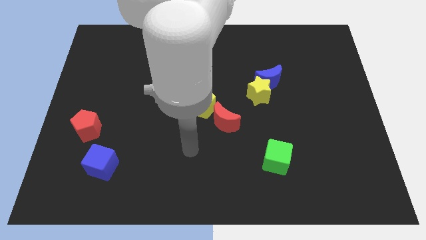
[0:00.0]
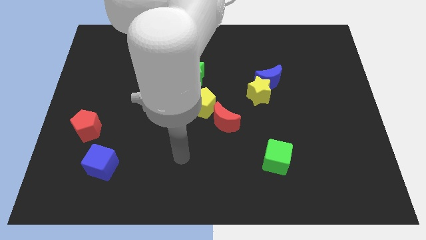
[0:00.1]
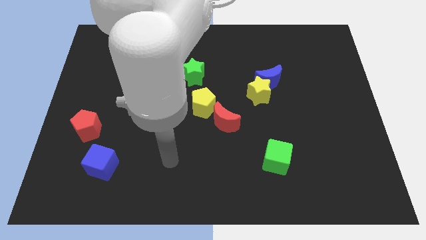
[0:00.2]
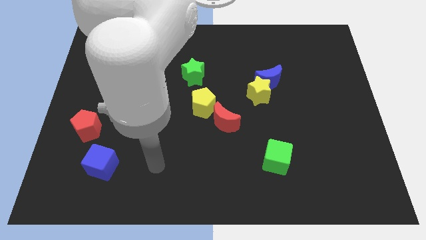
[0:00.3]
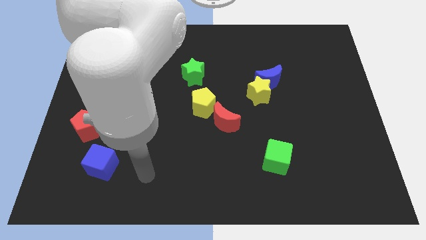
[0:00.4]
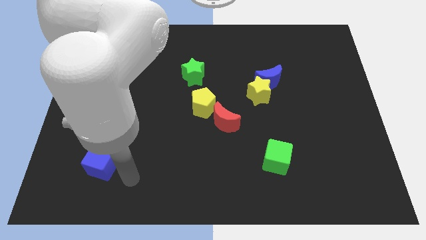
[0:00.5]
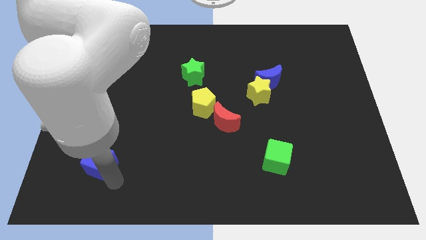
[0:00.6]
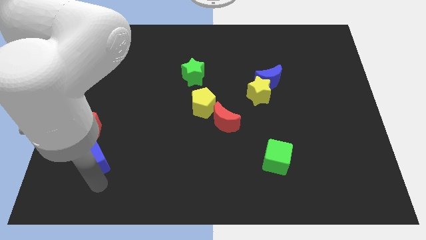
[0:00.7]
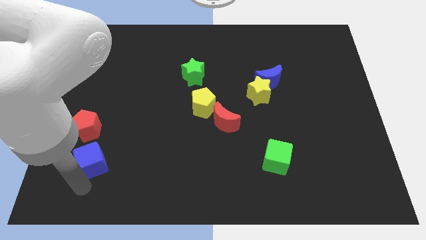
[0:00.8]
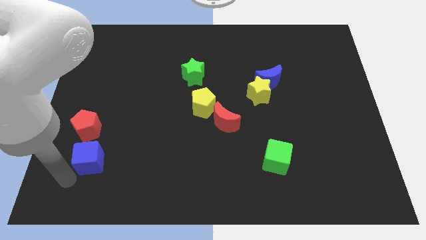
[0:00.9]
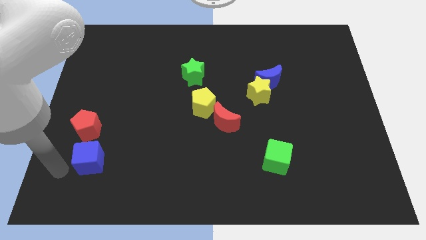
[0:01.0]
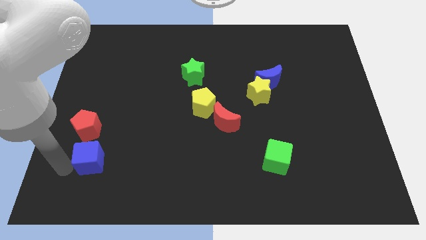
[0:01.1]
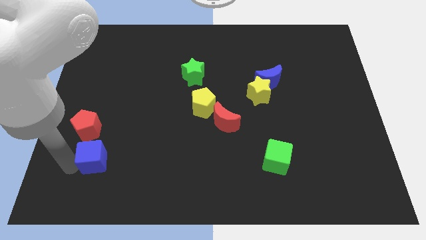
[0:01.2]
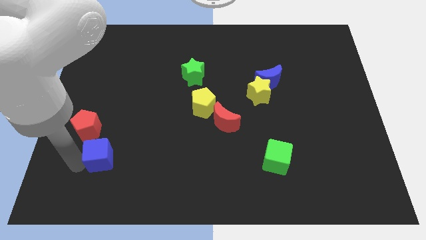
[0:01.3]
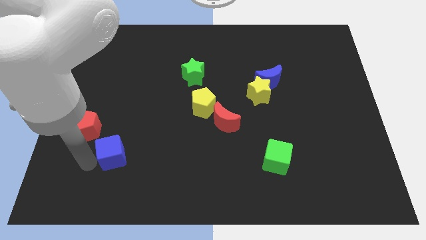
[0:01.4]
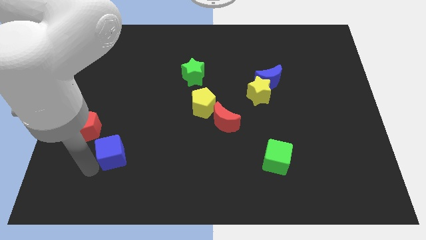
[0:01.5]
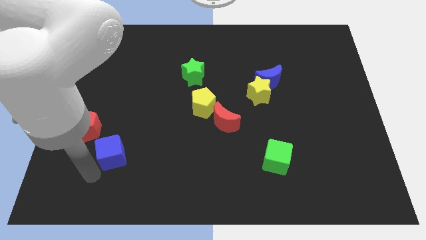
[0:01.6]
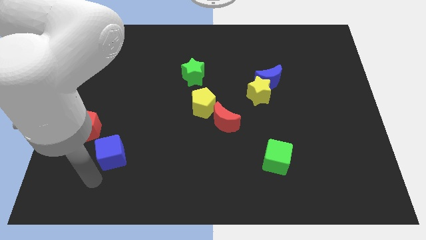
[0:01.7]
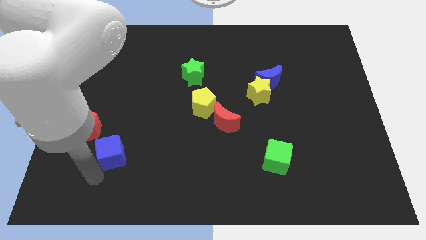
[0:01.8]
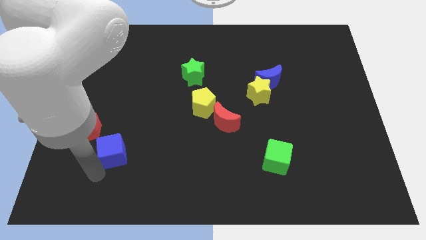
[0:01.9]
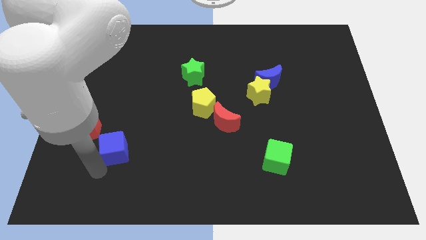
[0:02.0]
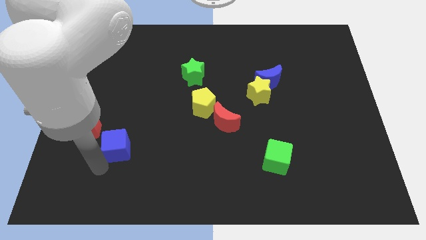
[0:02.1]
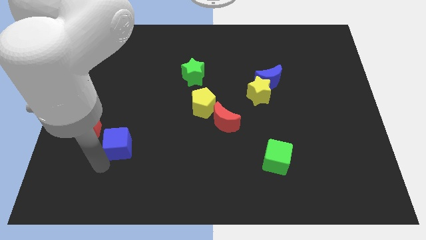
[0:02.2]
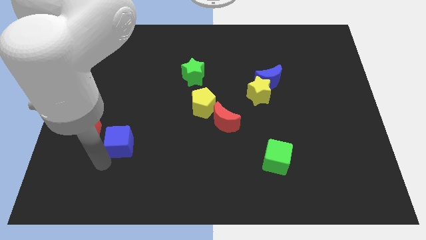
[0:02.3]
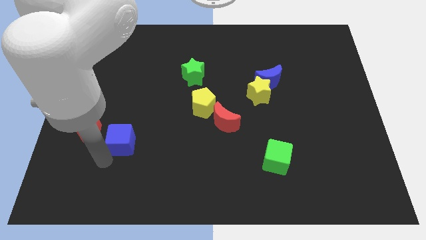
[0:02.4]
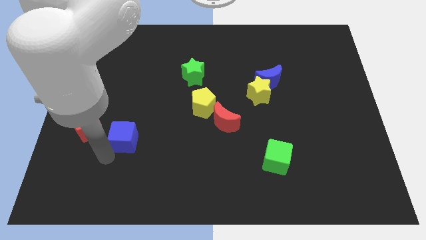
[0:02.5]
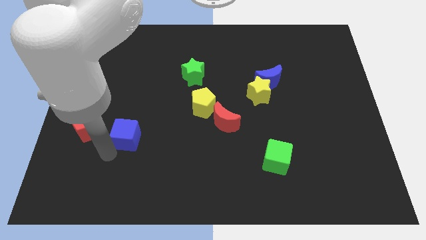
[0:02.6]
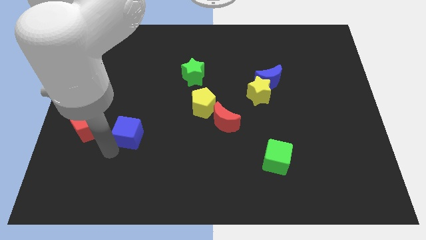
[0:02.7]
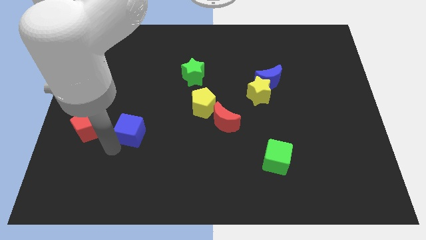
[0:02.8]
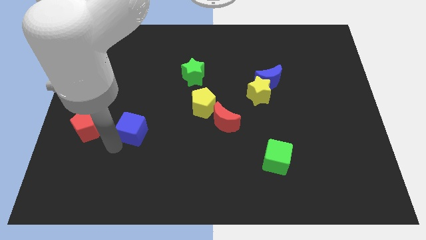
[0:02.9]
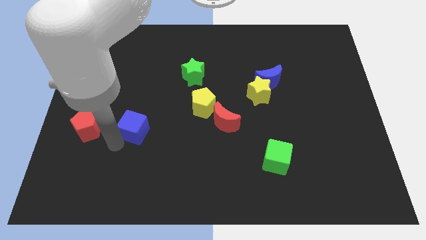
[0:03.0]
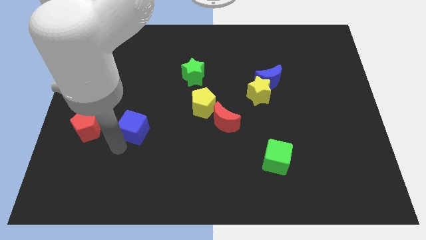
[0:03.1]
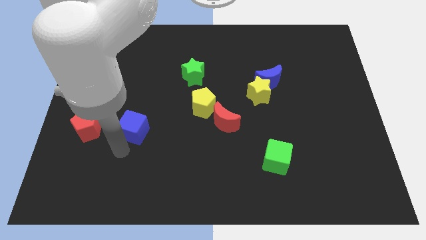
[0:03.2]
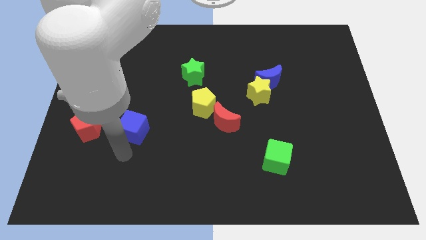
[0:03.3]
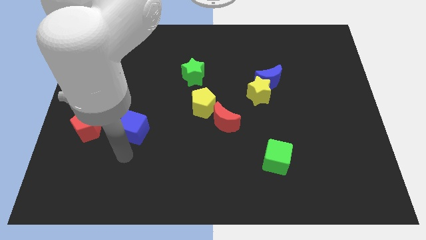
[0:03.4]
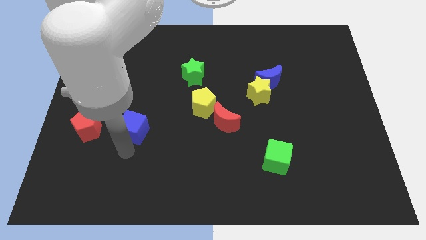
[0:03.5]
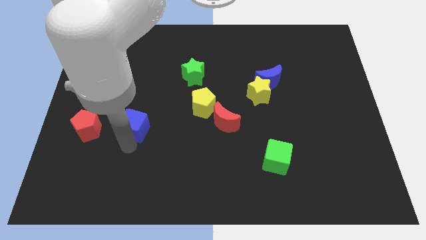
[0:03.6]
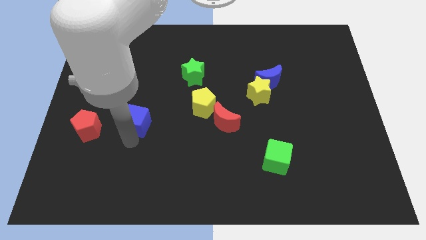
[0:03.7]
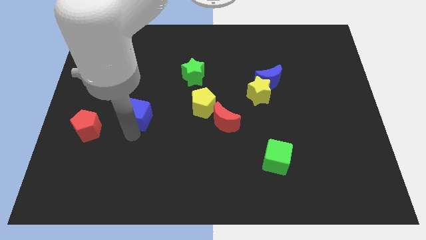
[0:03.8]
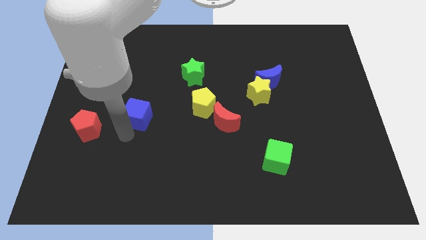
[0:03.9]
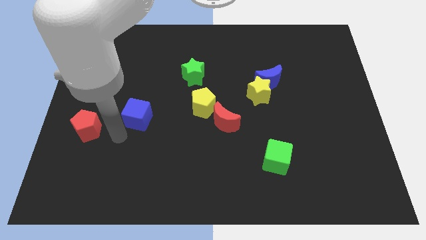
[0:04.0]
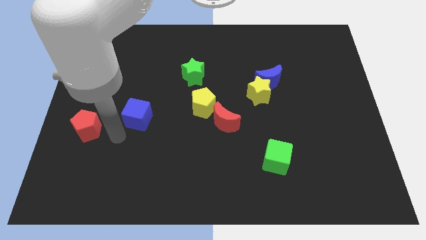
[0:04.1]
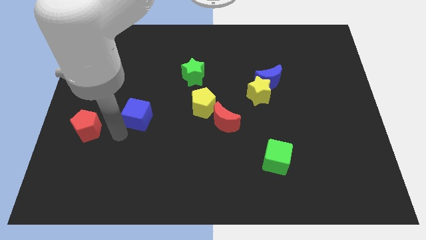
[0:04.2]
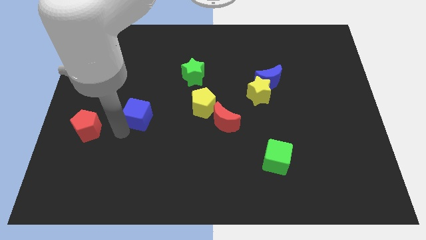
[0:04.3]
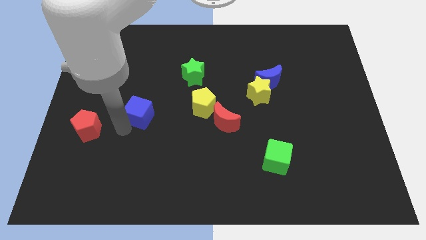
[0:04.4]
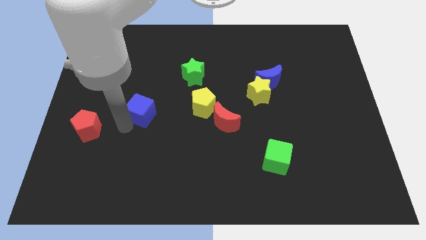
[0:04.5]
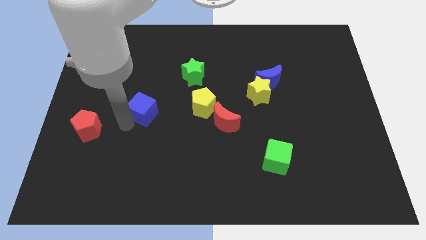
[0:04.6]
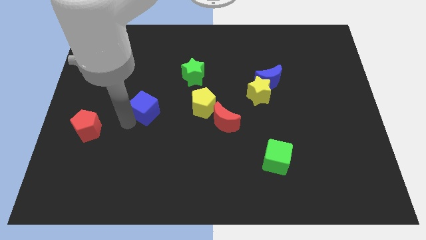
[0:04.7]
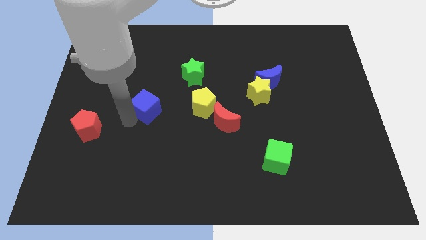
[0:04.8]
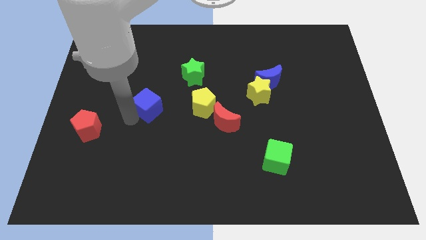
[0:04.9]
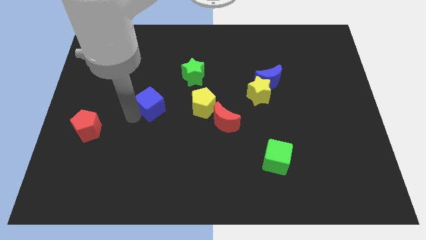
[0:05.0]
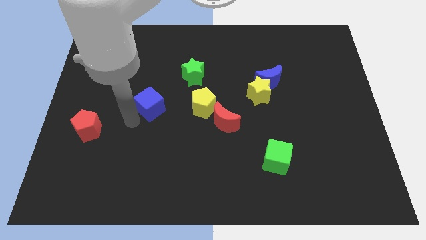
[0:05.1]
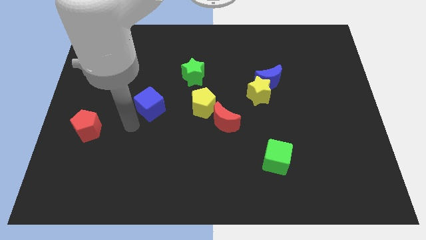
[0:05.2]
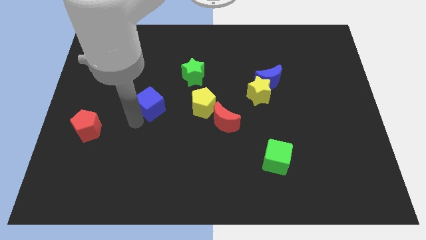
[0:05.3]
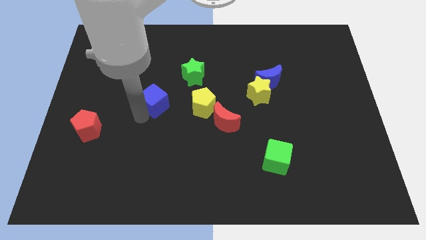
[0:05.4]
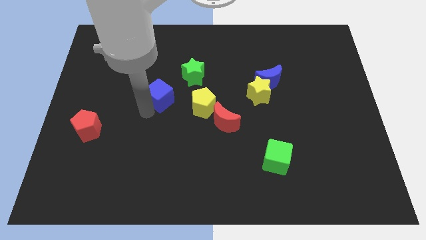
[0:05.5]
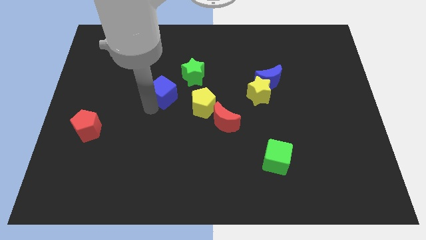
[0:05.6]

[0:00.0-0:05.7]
move the blue cube diagonally up and right

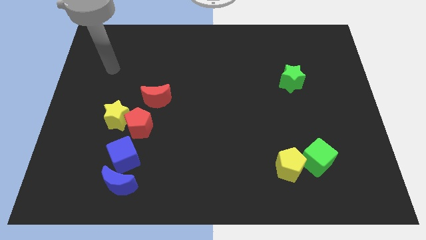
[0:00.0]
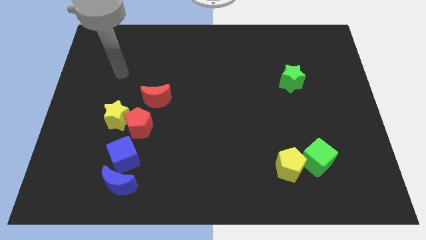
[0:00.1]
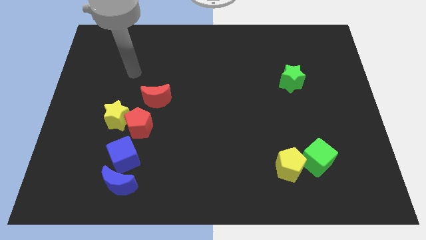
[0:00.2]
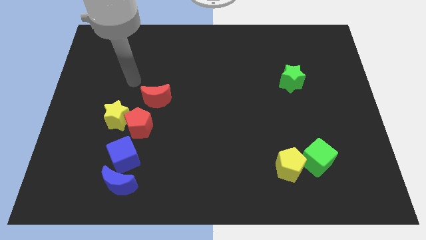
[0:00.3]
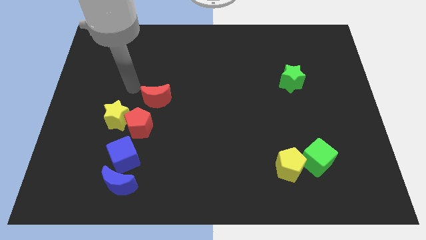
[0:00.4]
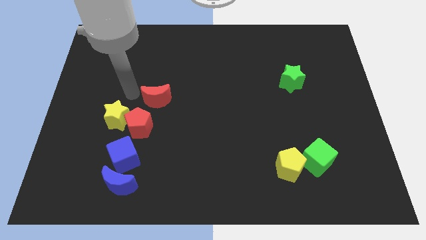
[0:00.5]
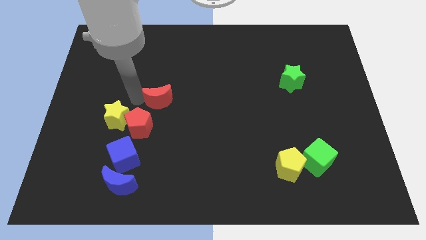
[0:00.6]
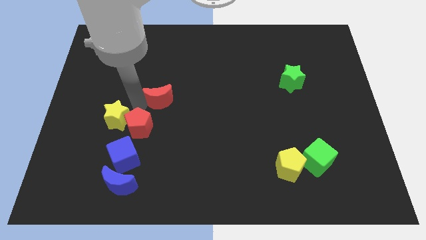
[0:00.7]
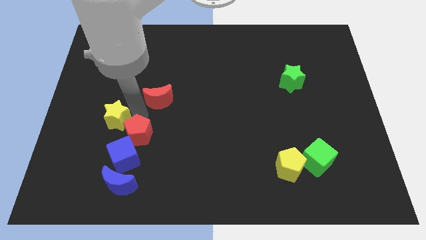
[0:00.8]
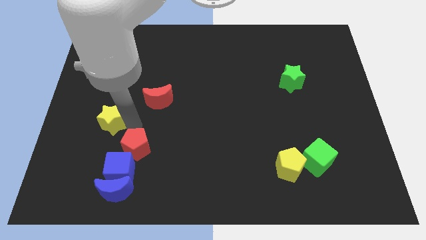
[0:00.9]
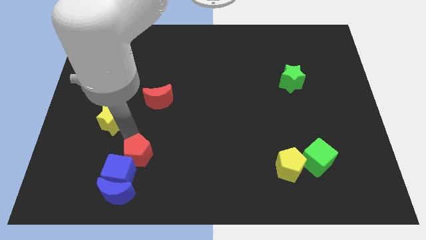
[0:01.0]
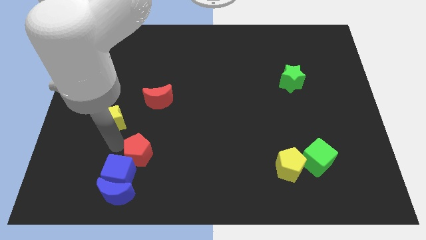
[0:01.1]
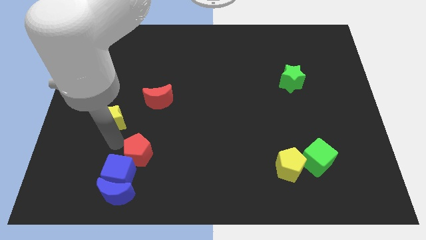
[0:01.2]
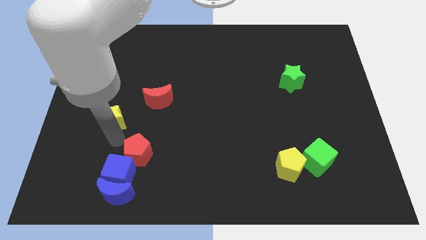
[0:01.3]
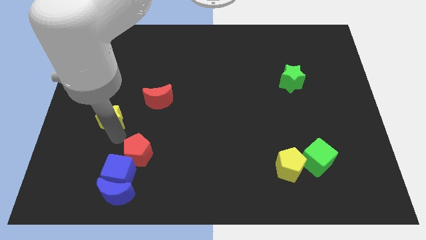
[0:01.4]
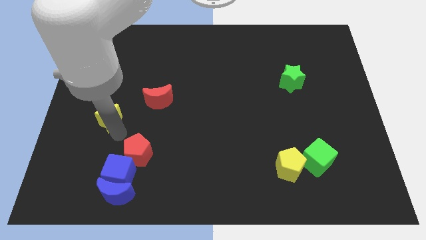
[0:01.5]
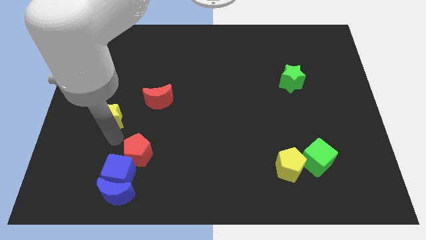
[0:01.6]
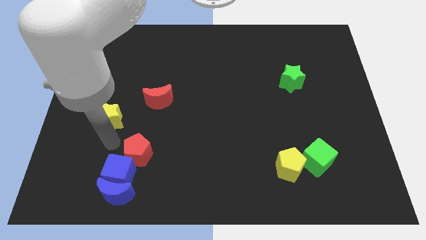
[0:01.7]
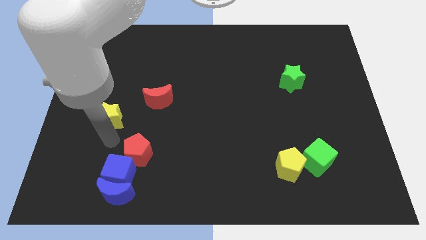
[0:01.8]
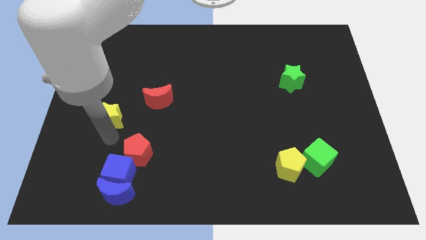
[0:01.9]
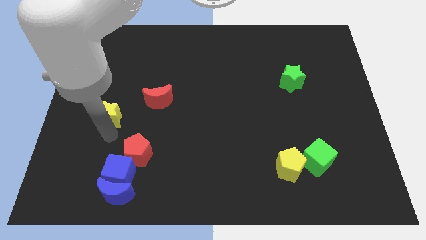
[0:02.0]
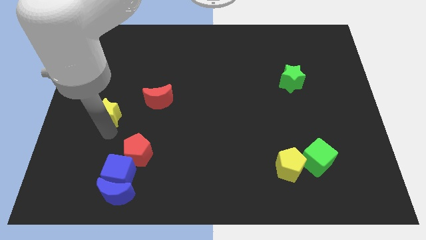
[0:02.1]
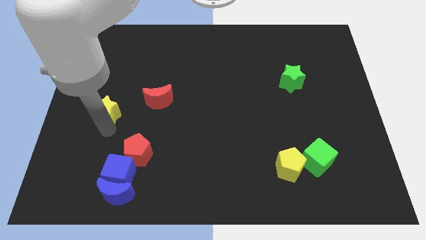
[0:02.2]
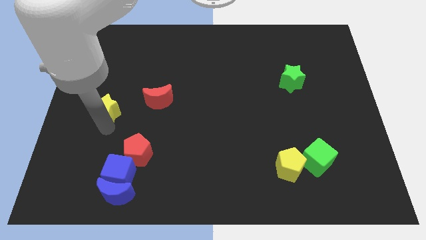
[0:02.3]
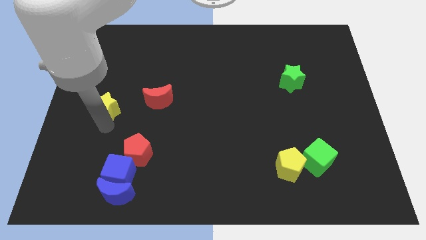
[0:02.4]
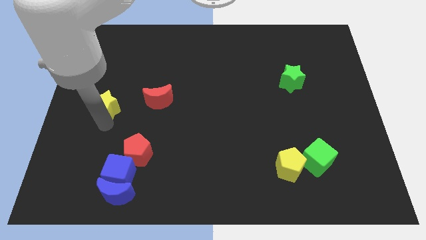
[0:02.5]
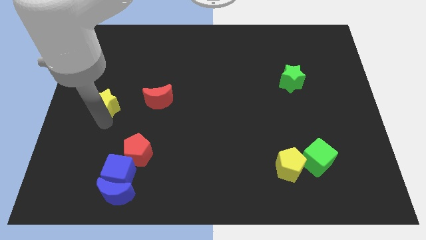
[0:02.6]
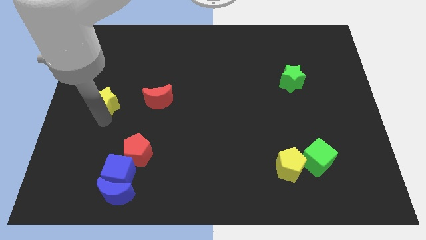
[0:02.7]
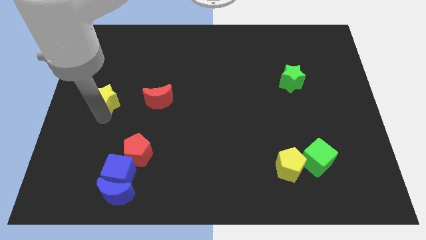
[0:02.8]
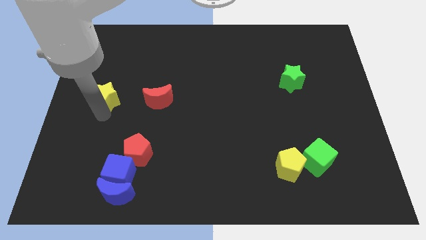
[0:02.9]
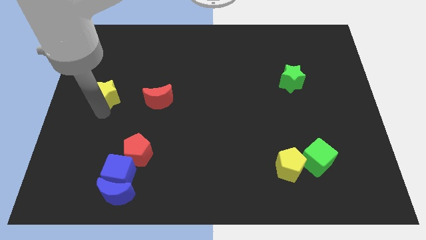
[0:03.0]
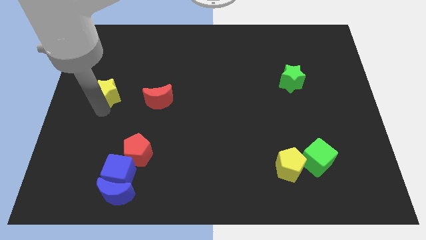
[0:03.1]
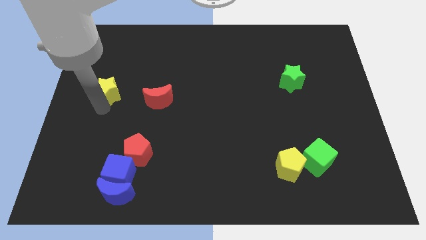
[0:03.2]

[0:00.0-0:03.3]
slightly push the yellow star up
